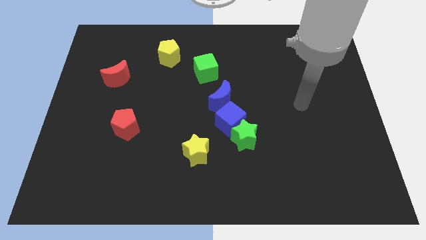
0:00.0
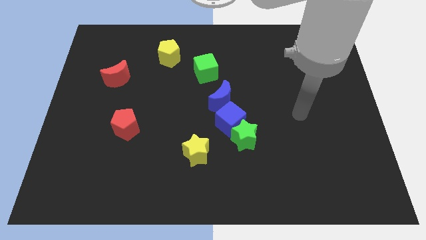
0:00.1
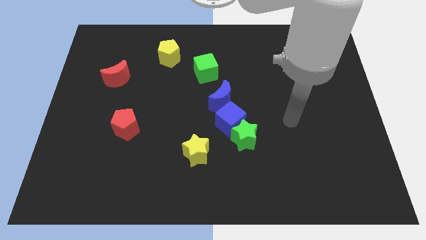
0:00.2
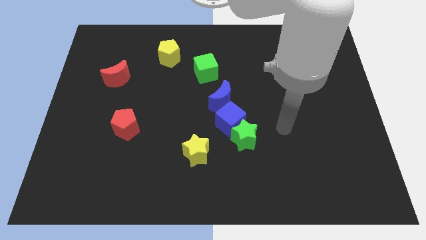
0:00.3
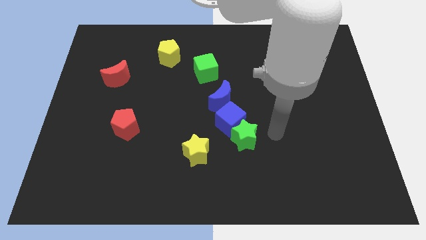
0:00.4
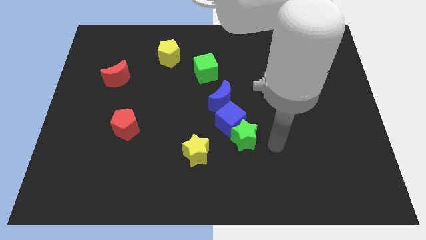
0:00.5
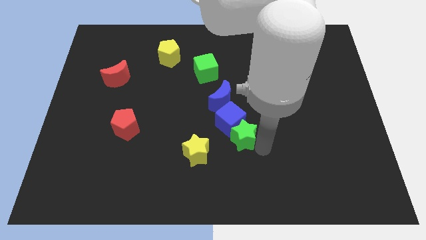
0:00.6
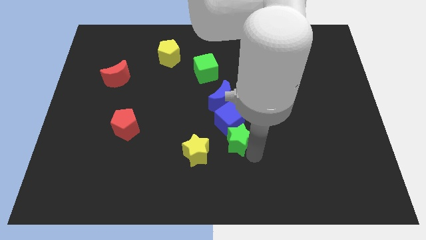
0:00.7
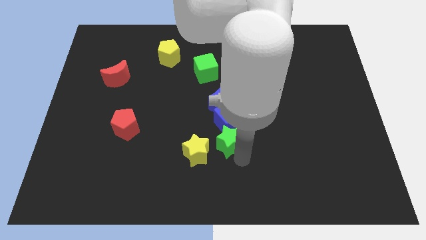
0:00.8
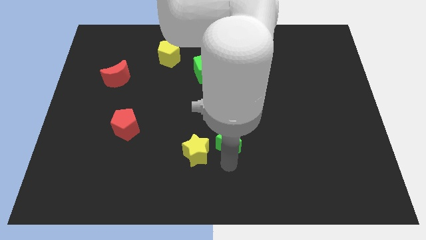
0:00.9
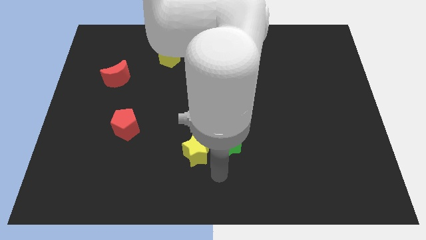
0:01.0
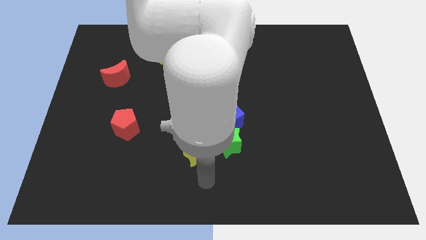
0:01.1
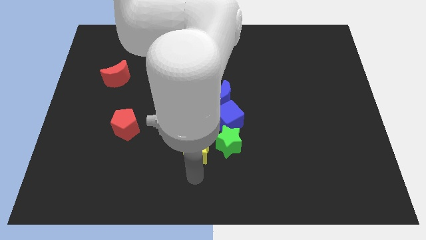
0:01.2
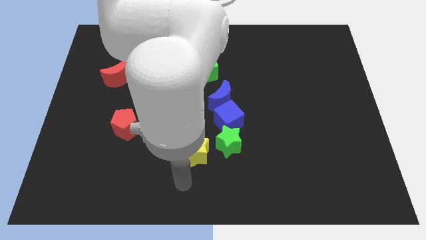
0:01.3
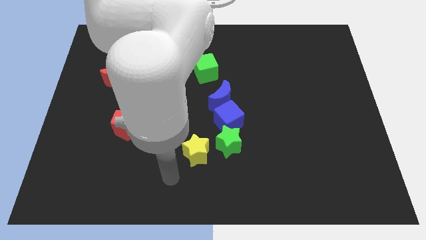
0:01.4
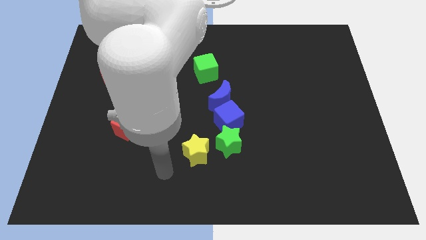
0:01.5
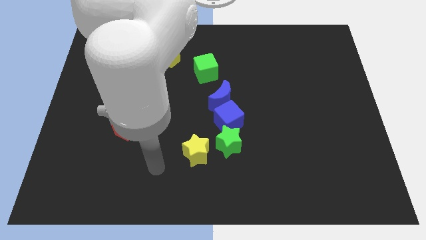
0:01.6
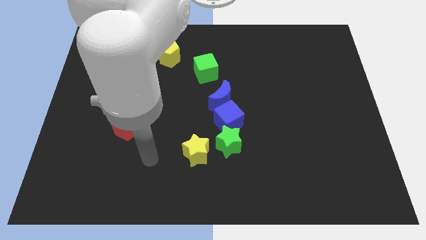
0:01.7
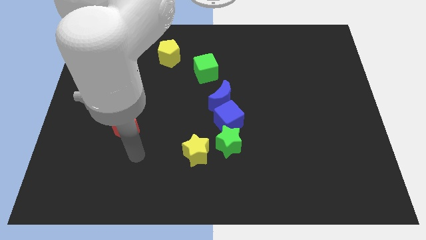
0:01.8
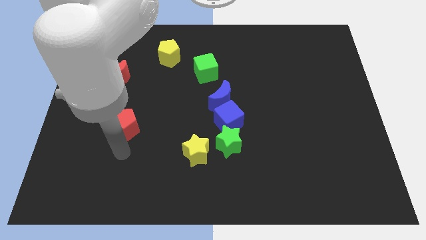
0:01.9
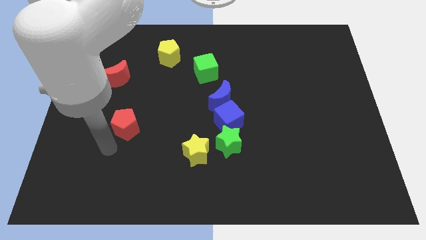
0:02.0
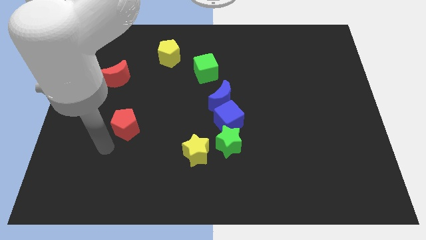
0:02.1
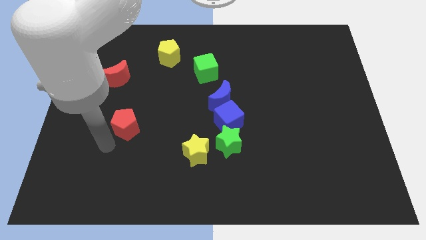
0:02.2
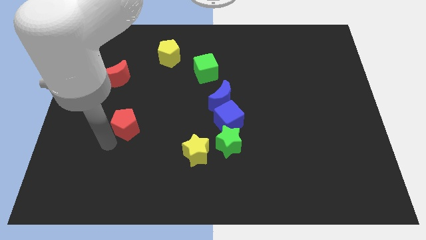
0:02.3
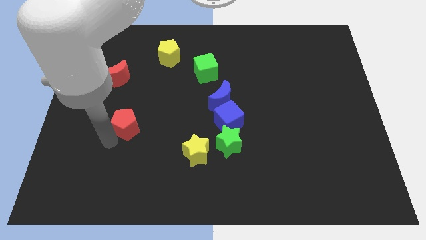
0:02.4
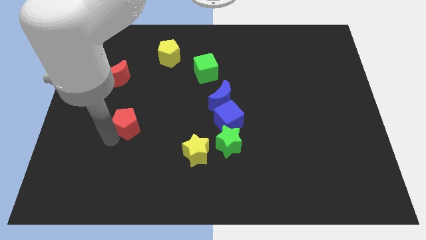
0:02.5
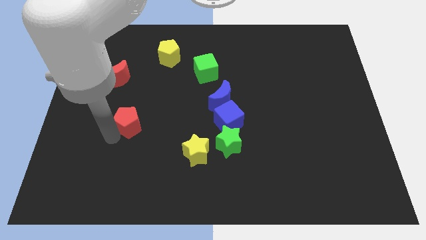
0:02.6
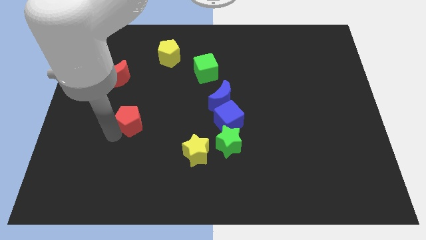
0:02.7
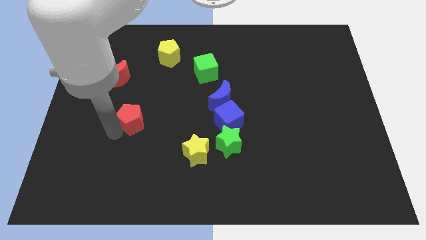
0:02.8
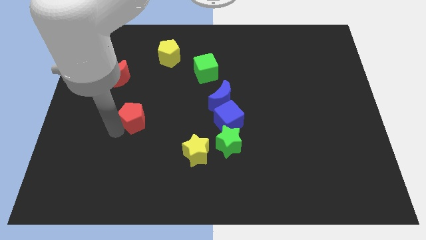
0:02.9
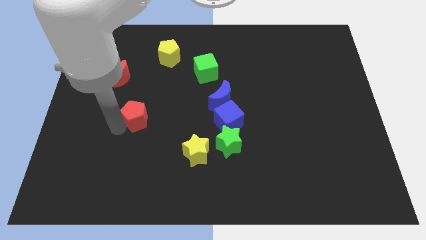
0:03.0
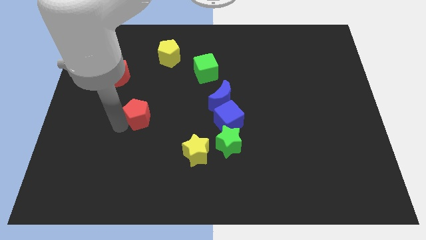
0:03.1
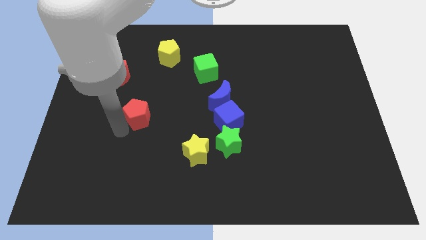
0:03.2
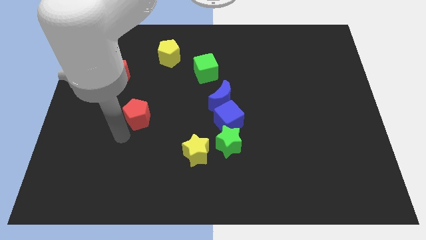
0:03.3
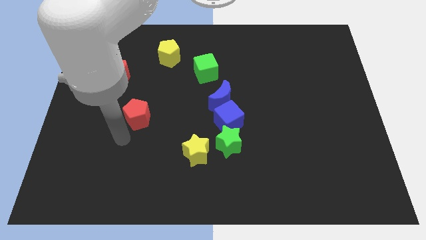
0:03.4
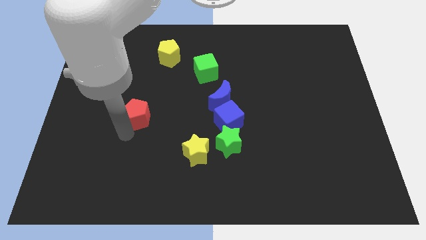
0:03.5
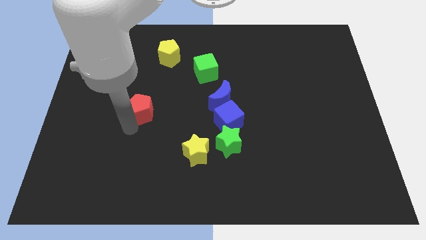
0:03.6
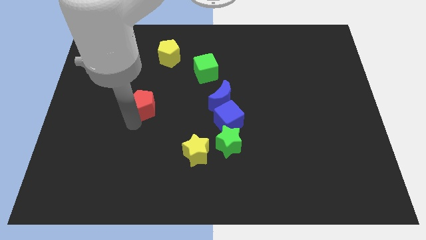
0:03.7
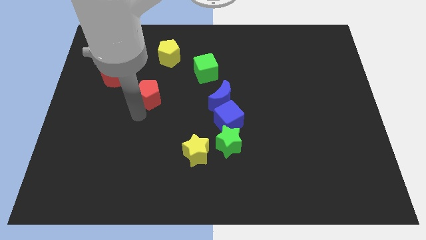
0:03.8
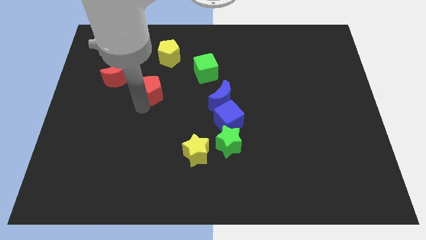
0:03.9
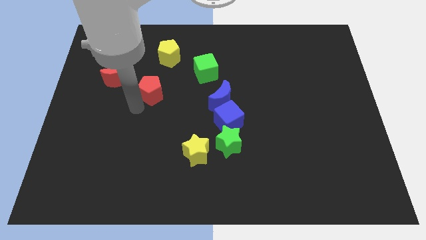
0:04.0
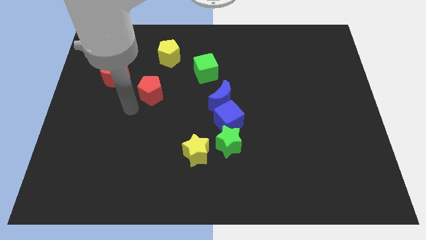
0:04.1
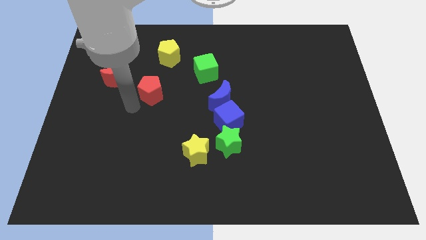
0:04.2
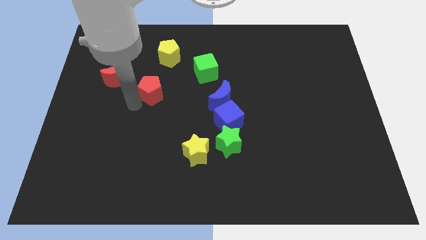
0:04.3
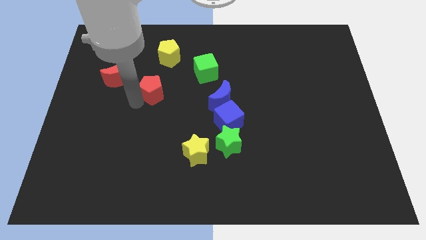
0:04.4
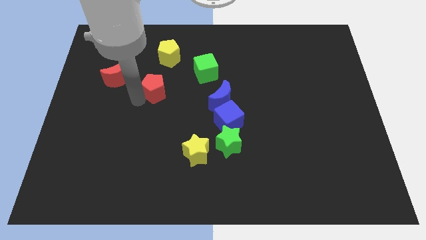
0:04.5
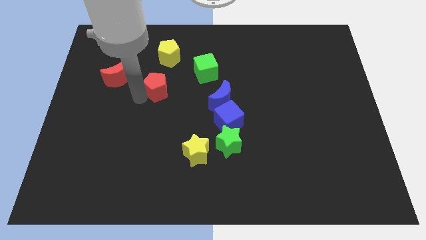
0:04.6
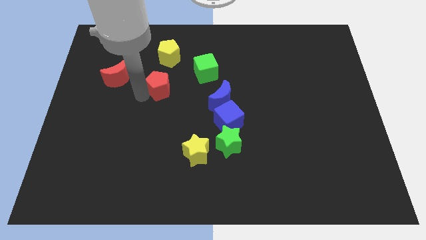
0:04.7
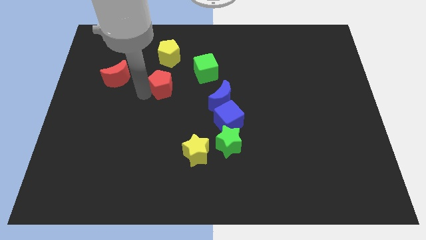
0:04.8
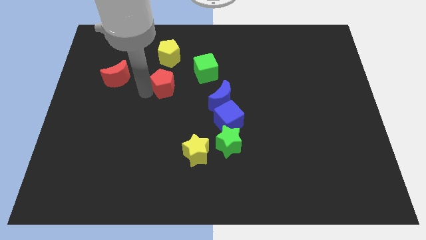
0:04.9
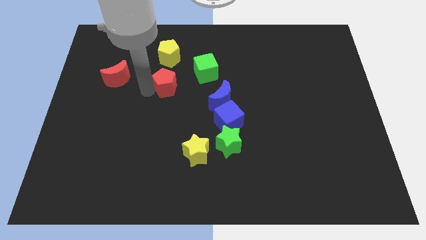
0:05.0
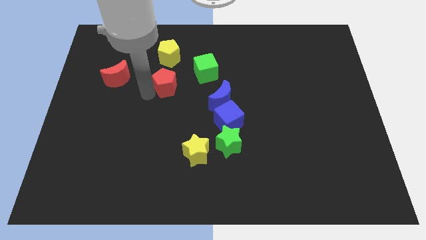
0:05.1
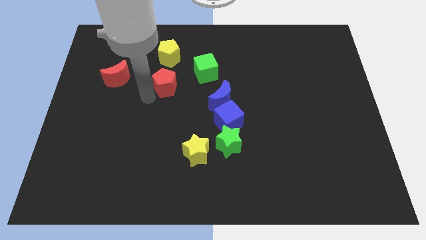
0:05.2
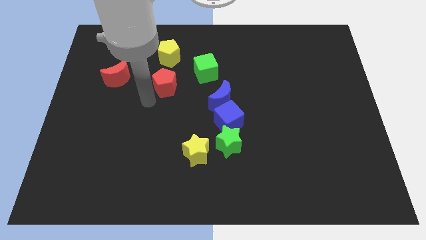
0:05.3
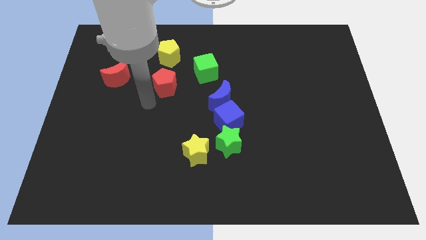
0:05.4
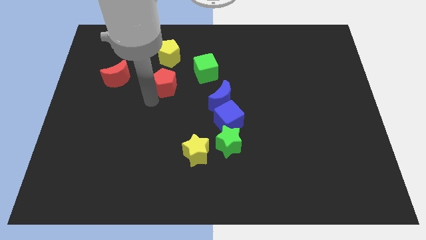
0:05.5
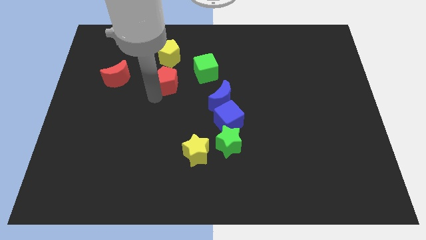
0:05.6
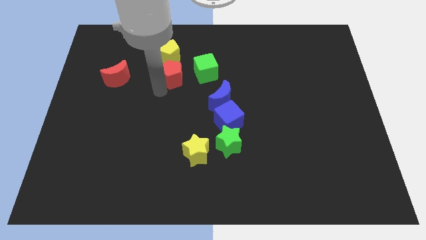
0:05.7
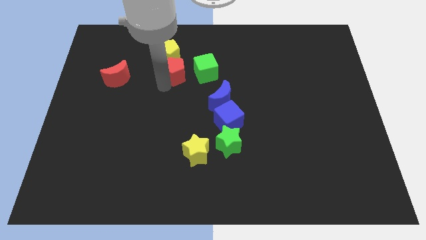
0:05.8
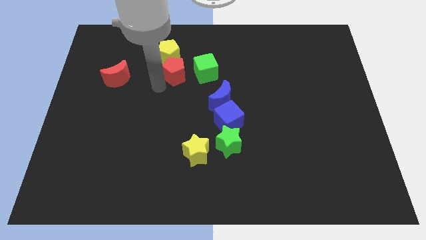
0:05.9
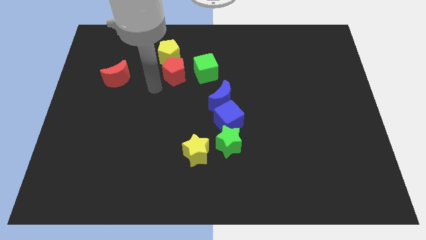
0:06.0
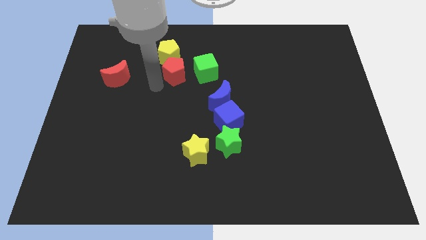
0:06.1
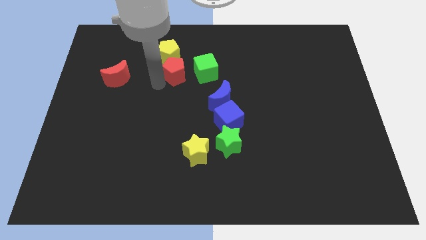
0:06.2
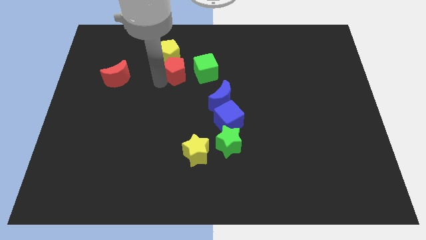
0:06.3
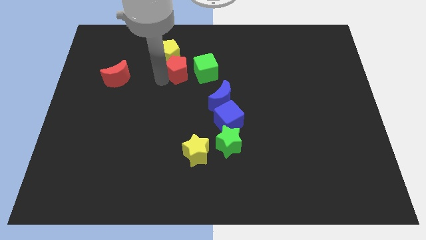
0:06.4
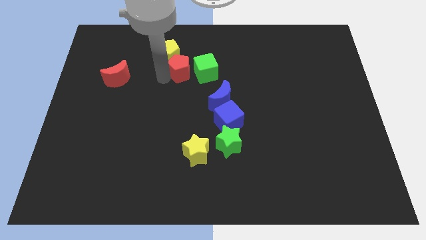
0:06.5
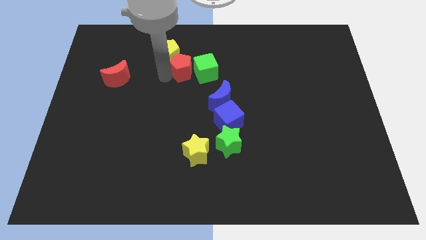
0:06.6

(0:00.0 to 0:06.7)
slide the red pentagon upwards and right

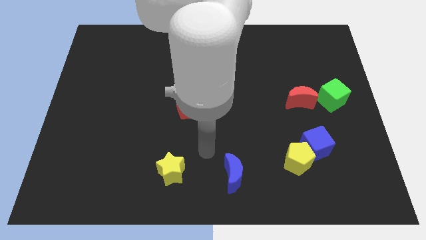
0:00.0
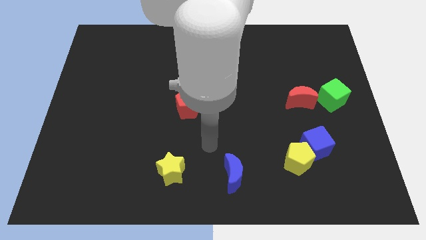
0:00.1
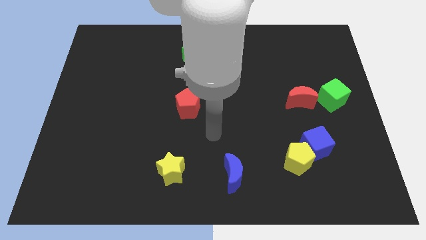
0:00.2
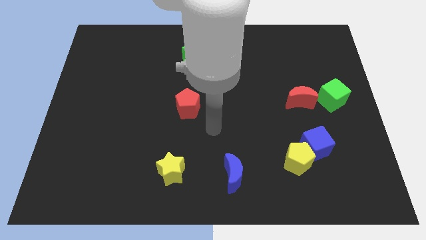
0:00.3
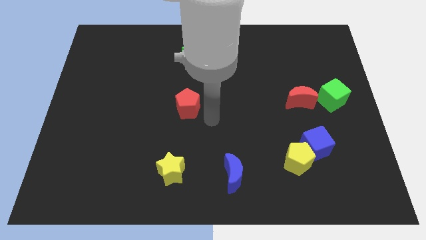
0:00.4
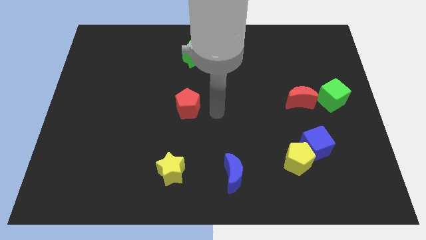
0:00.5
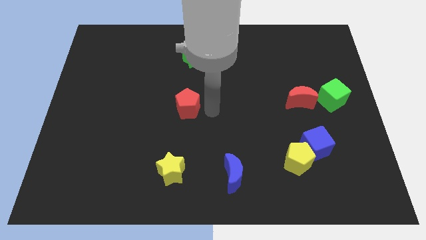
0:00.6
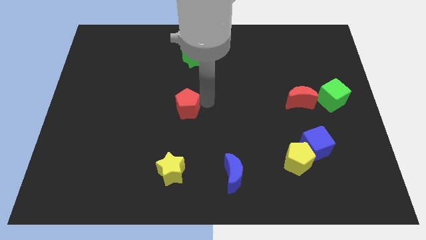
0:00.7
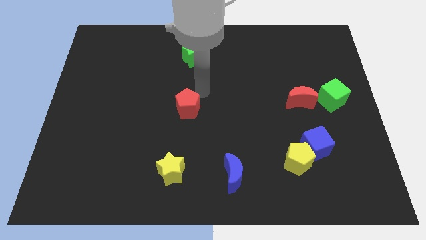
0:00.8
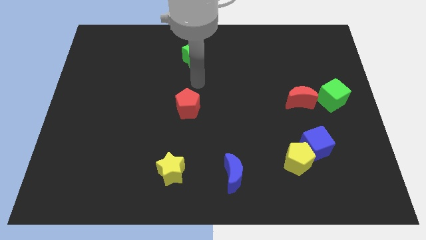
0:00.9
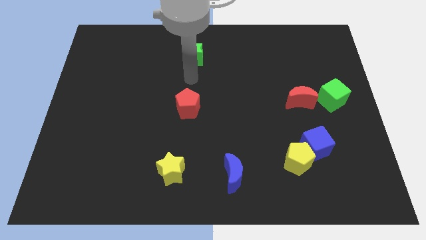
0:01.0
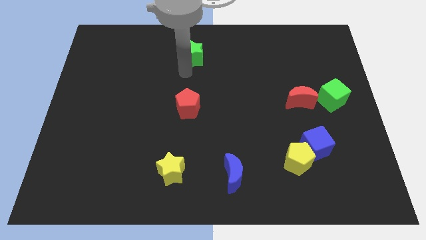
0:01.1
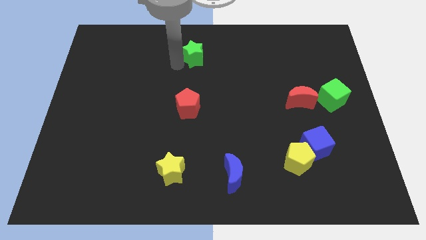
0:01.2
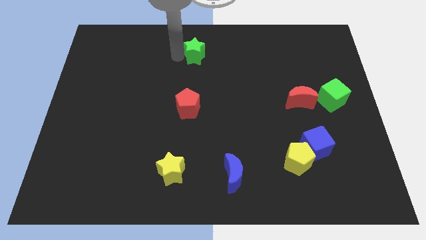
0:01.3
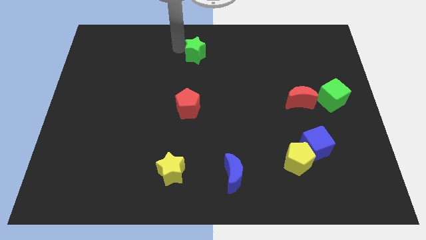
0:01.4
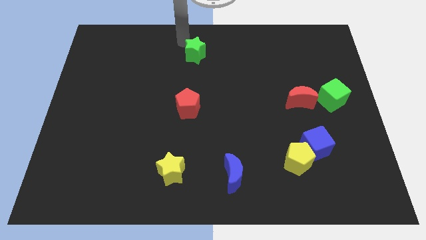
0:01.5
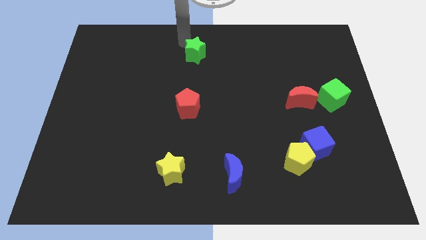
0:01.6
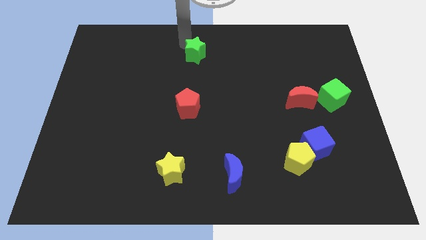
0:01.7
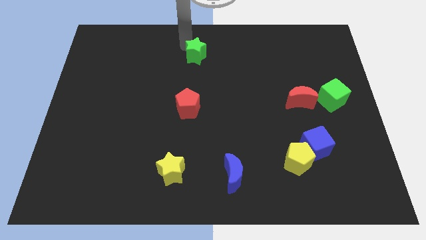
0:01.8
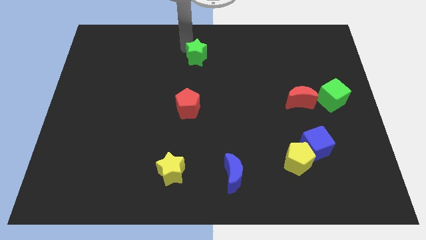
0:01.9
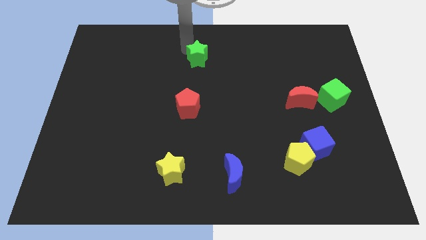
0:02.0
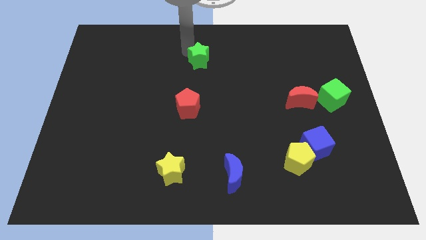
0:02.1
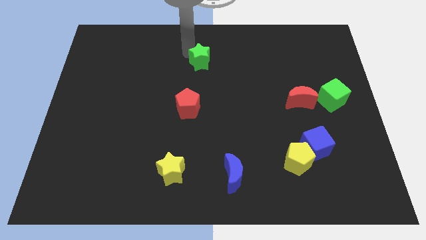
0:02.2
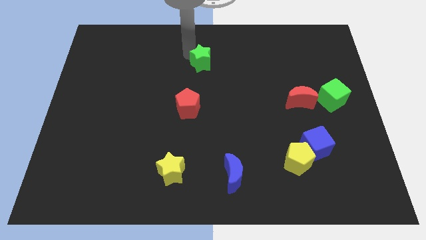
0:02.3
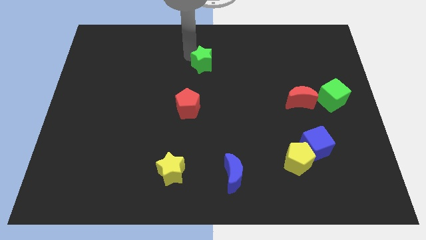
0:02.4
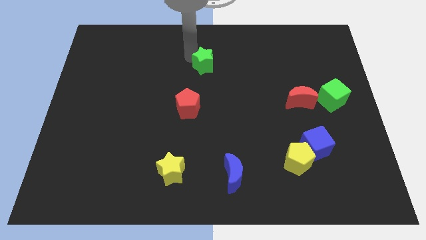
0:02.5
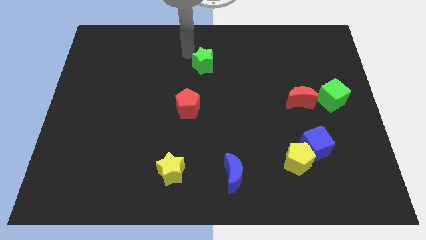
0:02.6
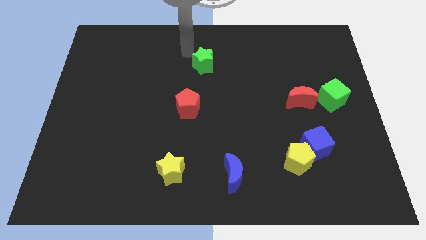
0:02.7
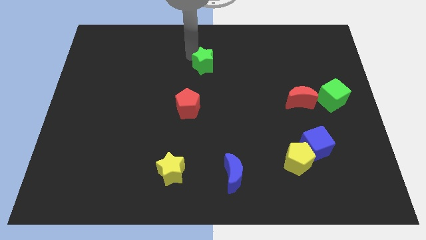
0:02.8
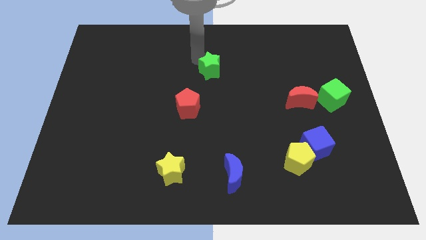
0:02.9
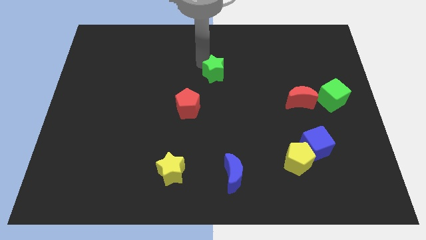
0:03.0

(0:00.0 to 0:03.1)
push the green star downwards and then right a little bit
